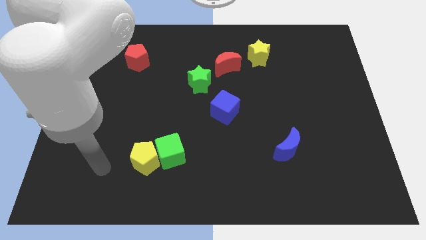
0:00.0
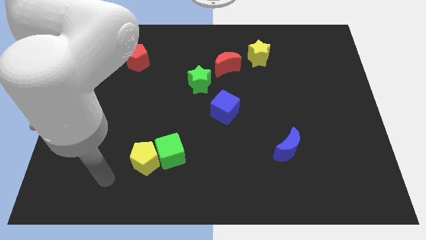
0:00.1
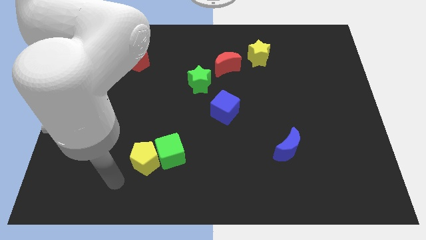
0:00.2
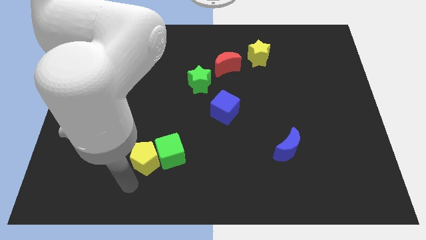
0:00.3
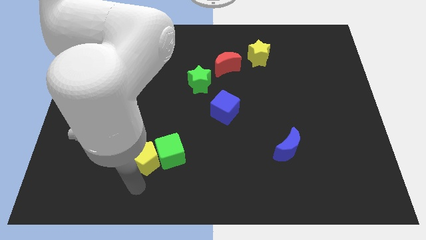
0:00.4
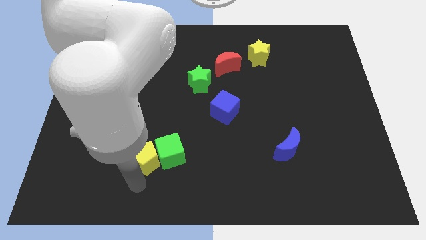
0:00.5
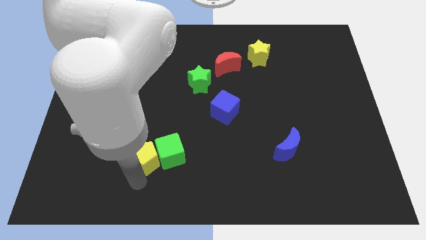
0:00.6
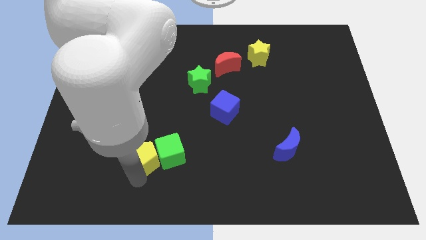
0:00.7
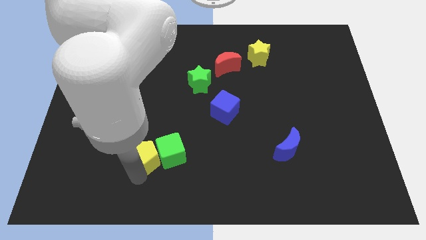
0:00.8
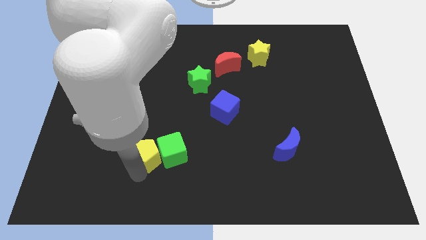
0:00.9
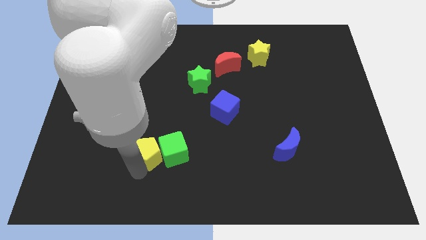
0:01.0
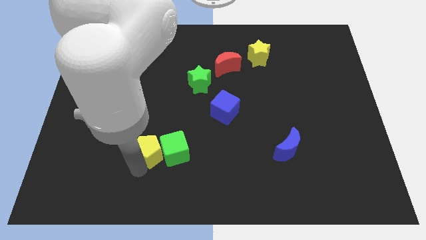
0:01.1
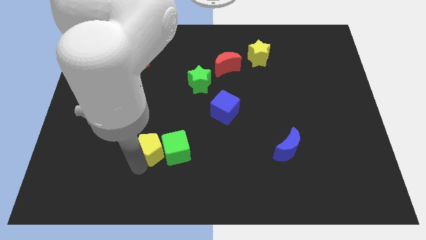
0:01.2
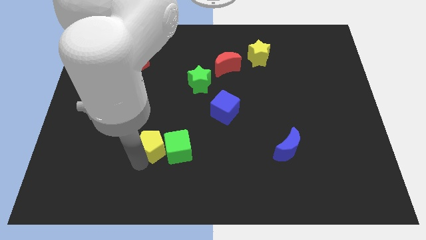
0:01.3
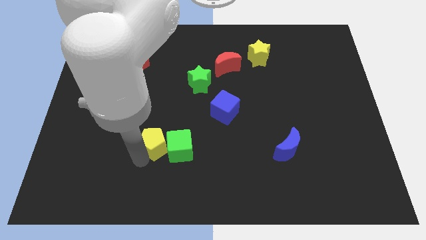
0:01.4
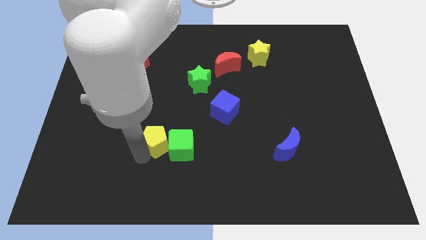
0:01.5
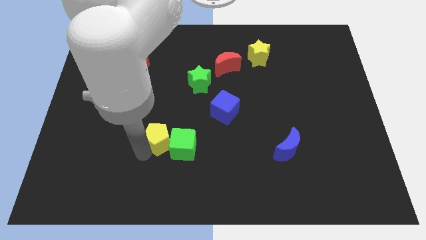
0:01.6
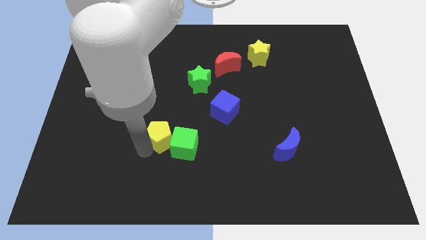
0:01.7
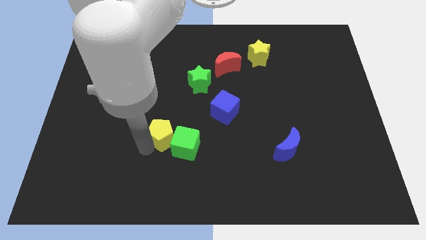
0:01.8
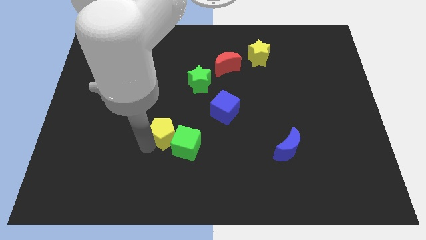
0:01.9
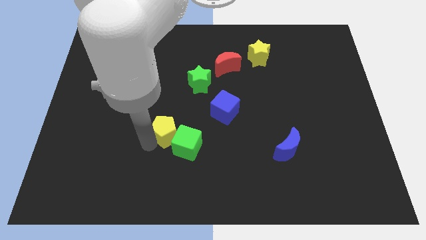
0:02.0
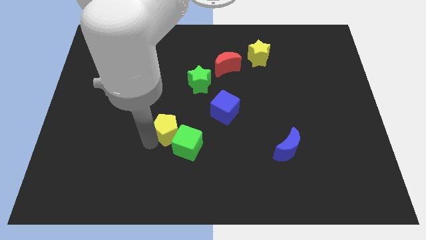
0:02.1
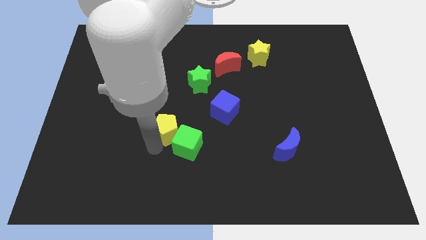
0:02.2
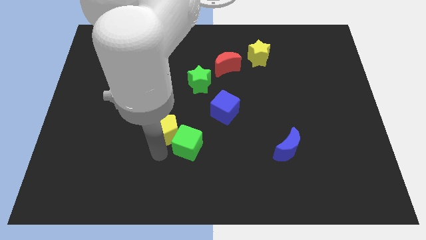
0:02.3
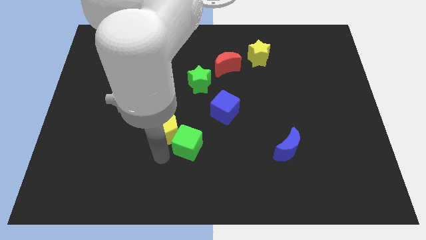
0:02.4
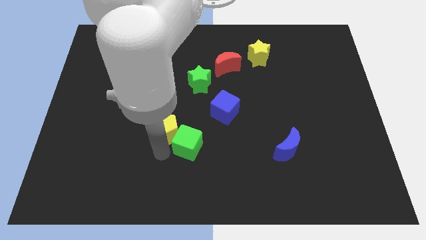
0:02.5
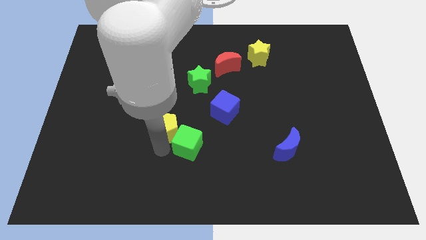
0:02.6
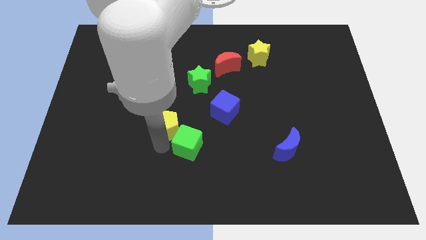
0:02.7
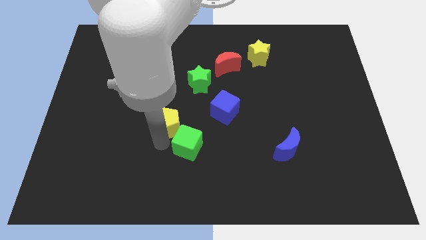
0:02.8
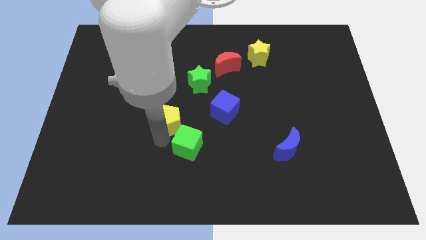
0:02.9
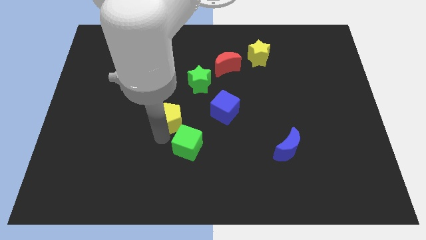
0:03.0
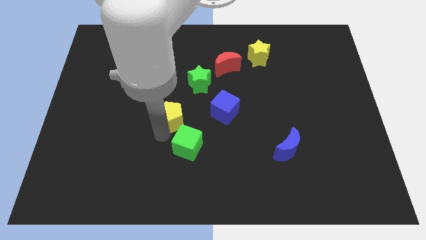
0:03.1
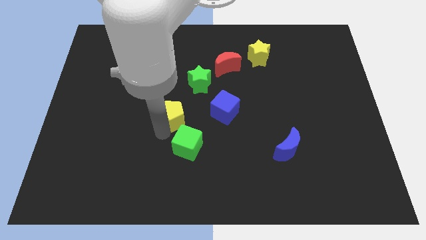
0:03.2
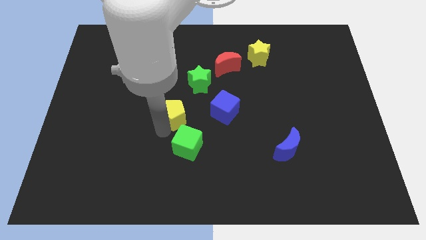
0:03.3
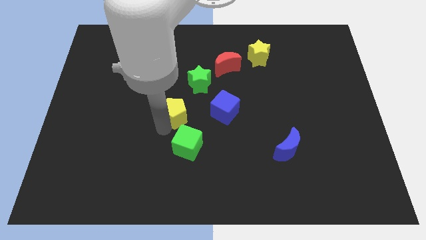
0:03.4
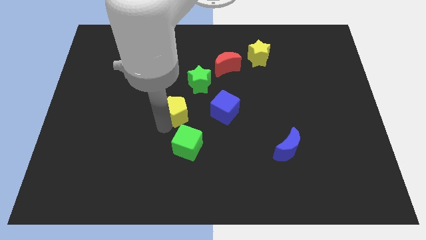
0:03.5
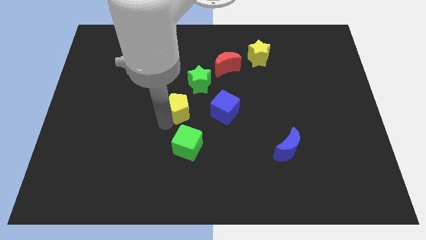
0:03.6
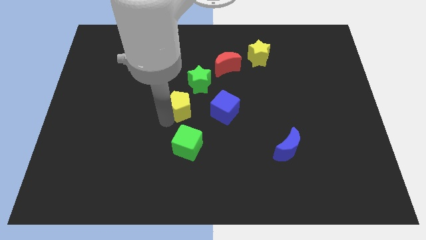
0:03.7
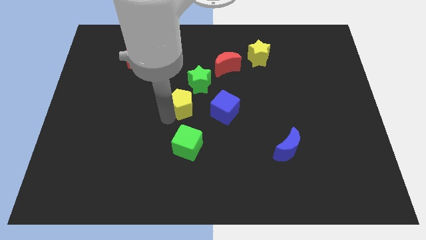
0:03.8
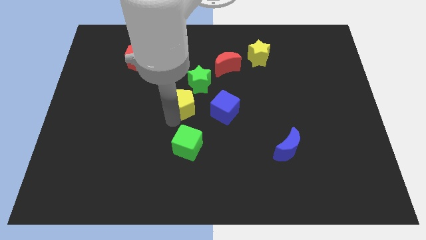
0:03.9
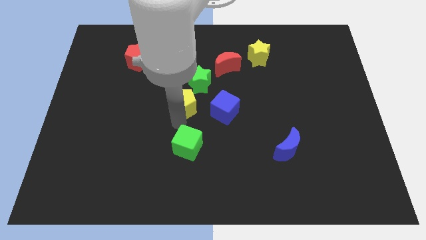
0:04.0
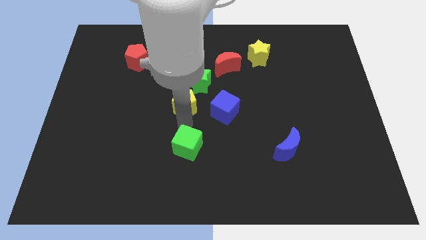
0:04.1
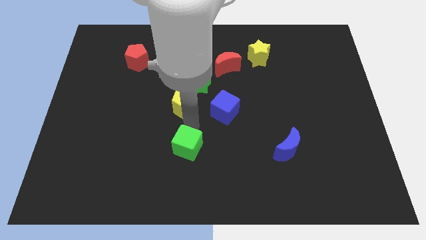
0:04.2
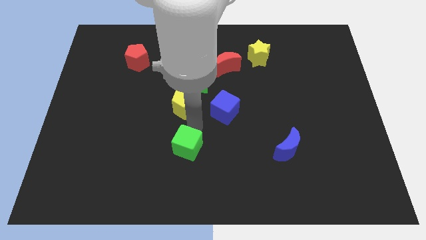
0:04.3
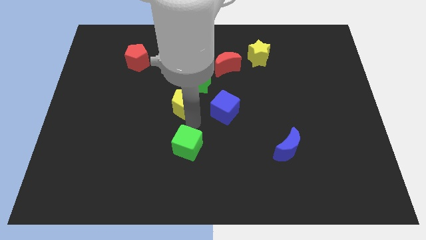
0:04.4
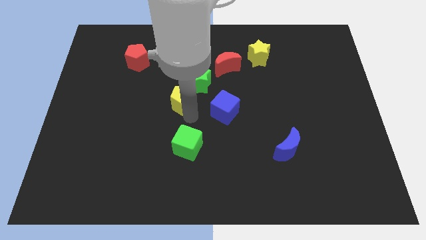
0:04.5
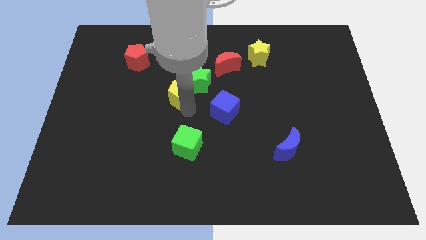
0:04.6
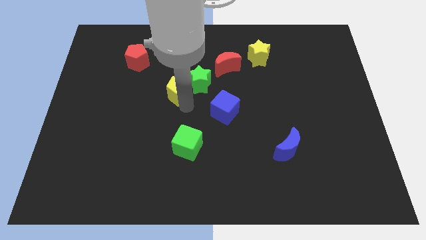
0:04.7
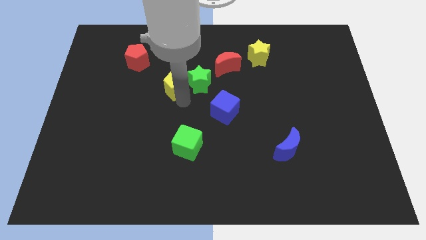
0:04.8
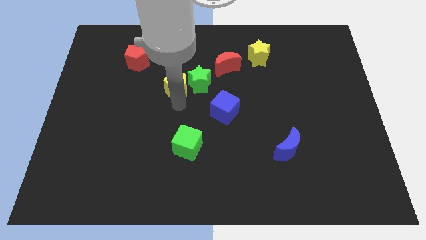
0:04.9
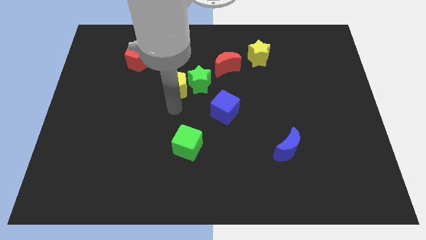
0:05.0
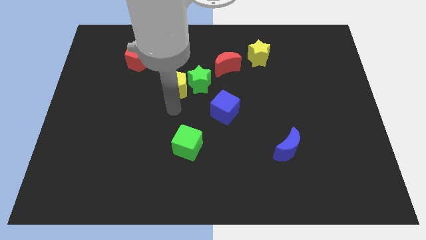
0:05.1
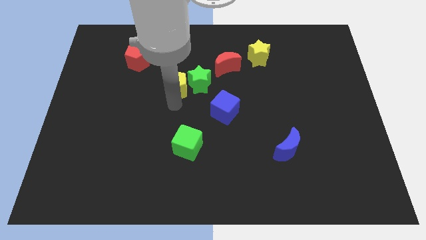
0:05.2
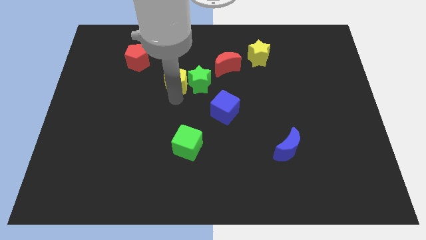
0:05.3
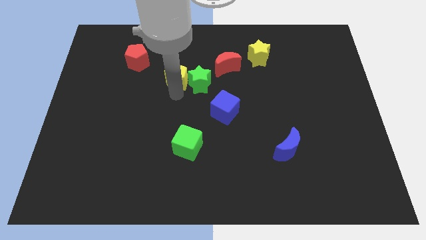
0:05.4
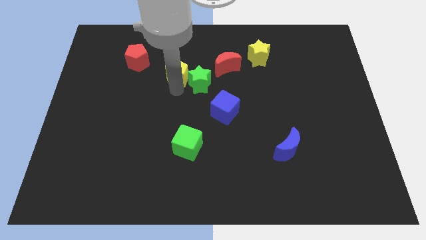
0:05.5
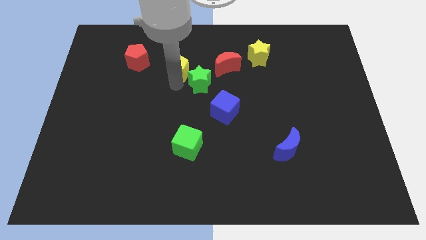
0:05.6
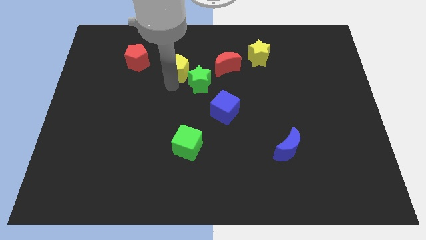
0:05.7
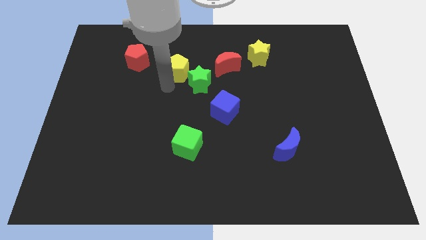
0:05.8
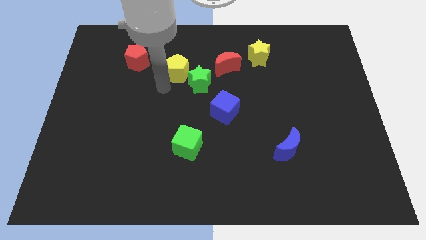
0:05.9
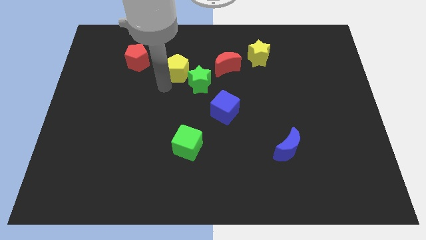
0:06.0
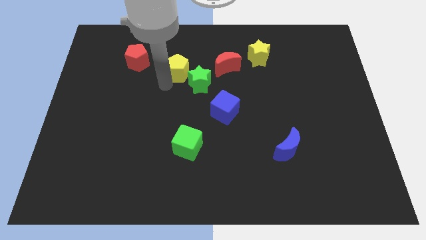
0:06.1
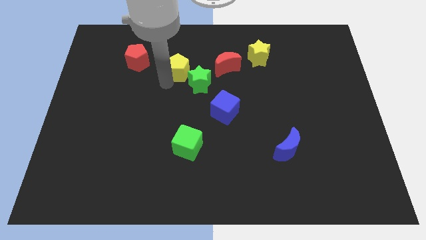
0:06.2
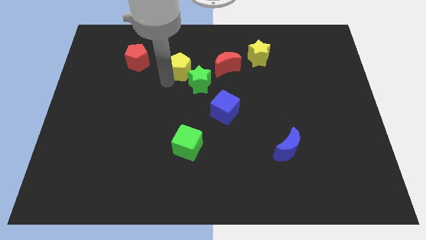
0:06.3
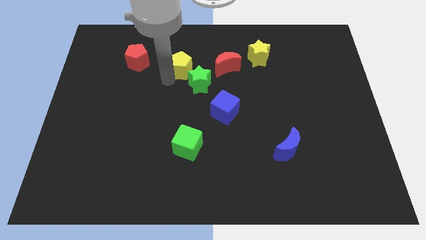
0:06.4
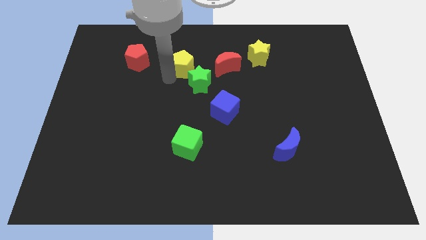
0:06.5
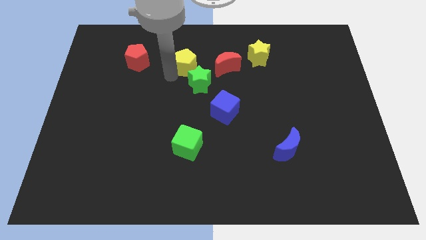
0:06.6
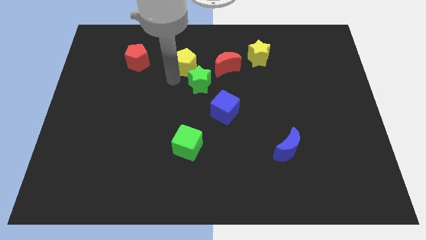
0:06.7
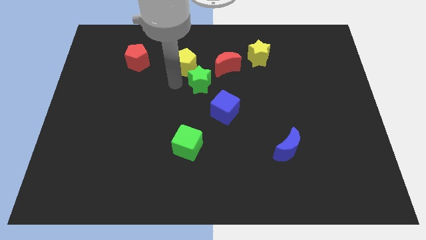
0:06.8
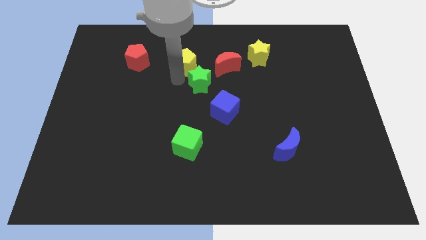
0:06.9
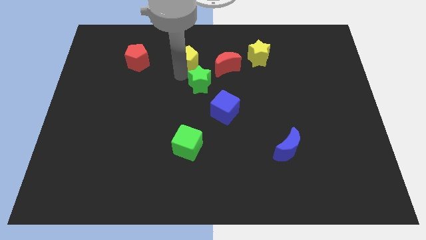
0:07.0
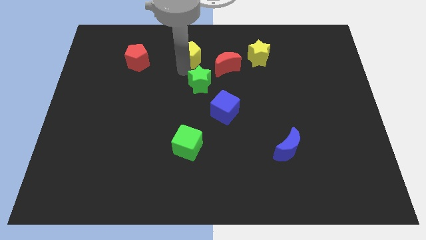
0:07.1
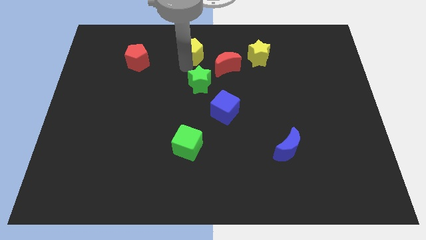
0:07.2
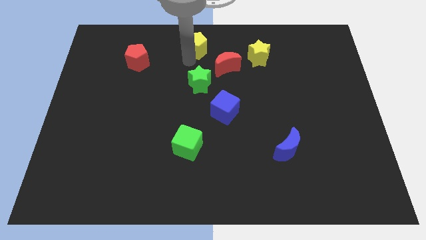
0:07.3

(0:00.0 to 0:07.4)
move the yellow pentagon to the towards your base
